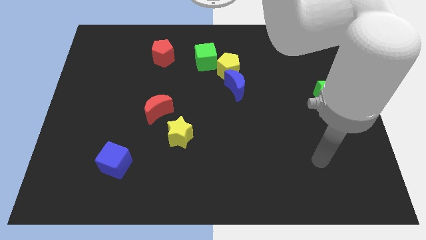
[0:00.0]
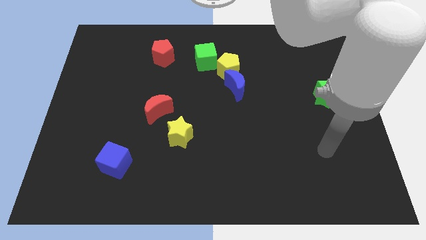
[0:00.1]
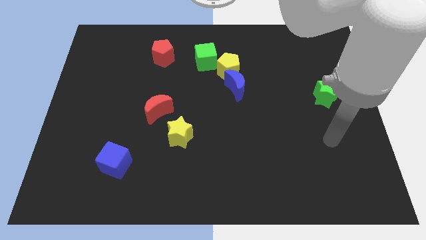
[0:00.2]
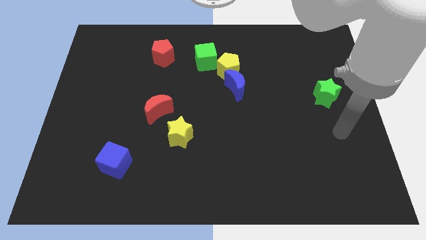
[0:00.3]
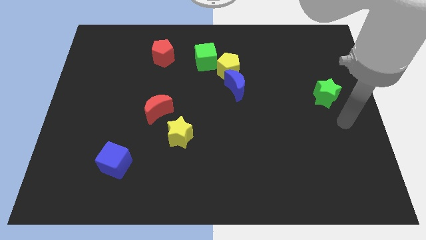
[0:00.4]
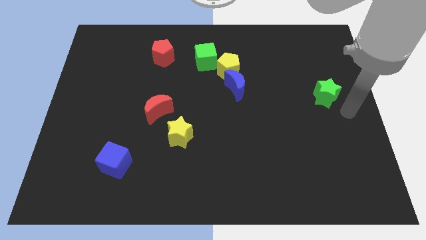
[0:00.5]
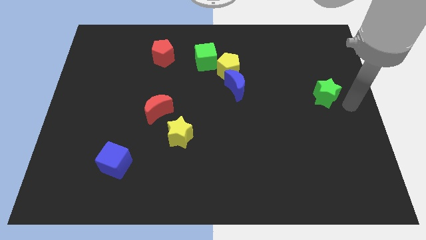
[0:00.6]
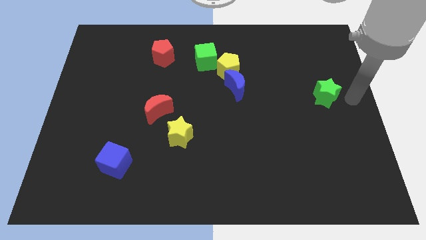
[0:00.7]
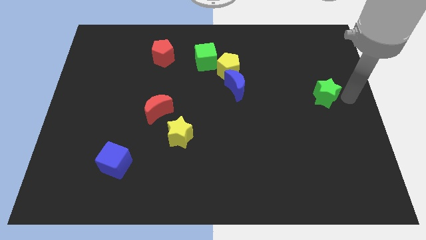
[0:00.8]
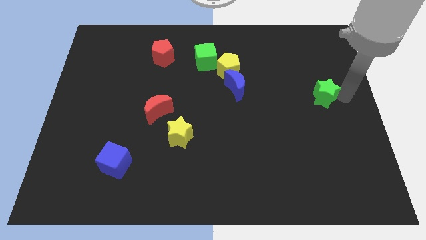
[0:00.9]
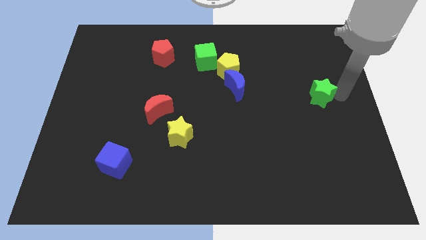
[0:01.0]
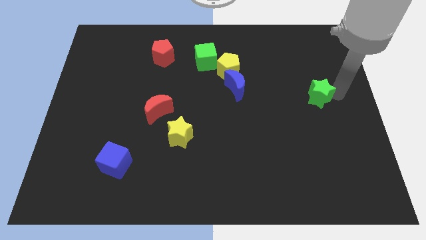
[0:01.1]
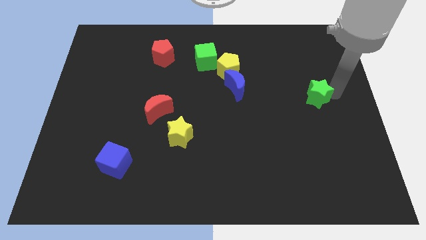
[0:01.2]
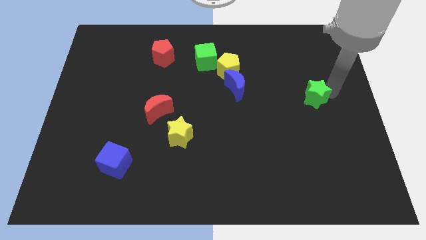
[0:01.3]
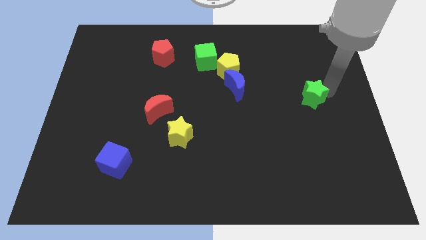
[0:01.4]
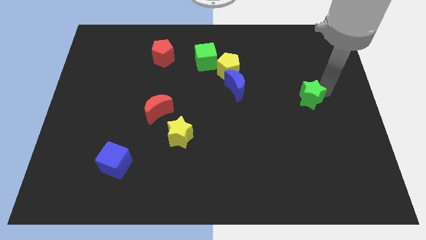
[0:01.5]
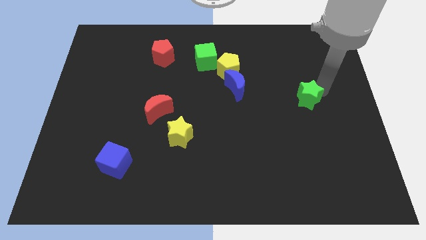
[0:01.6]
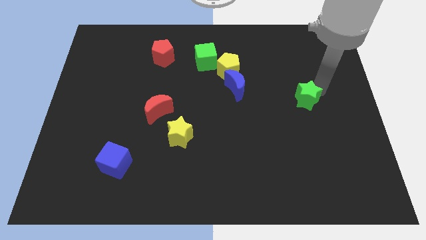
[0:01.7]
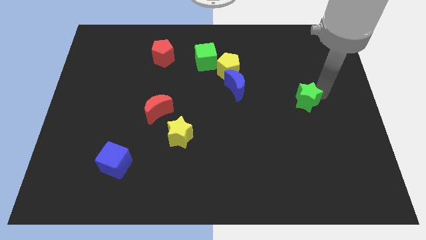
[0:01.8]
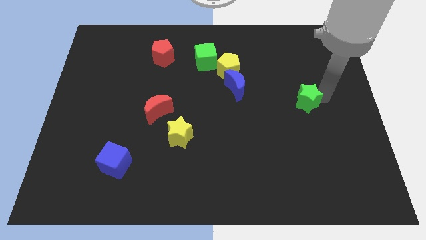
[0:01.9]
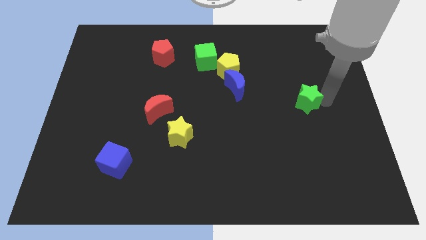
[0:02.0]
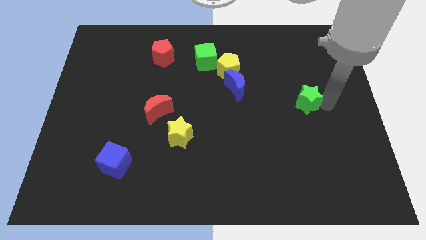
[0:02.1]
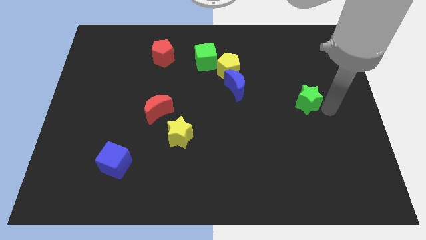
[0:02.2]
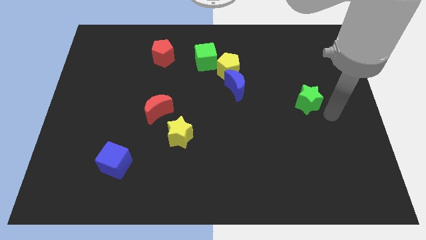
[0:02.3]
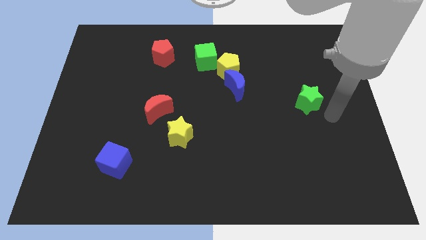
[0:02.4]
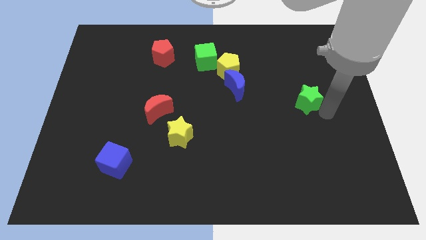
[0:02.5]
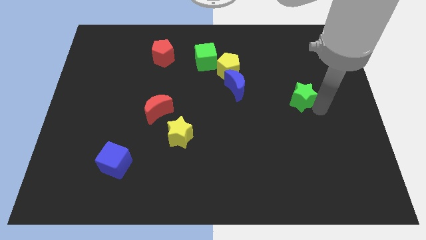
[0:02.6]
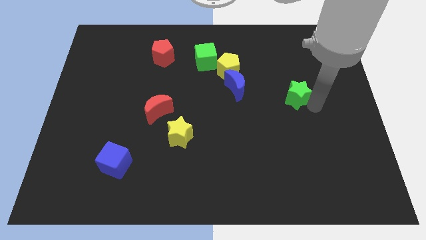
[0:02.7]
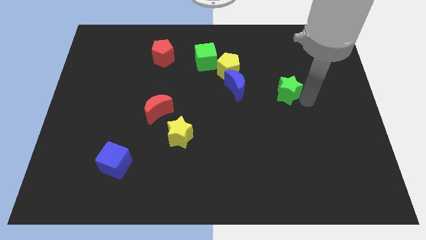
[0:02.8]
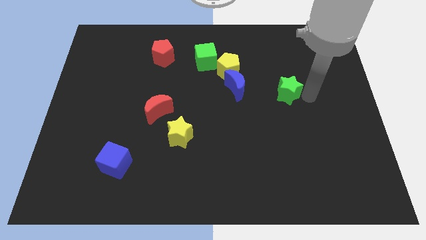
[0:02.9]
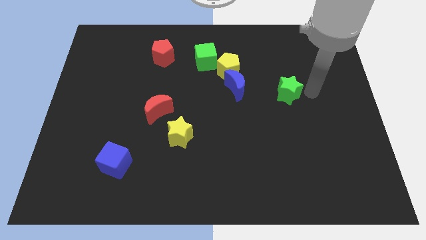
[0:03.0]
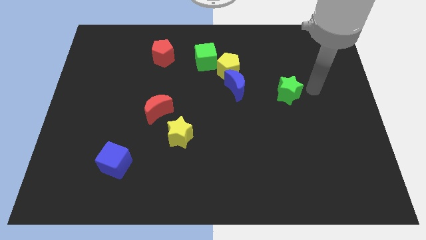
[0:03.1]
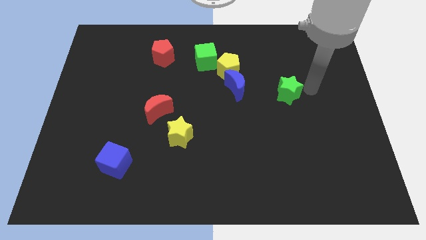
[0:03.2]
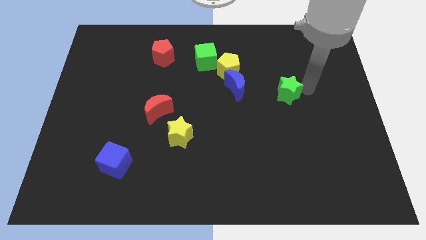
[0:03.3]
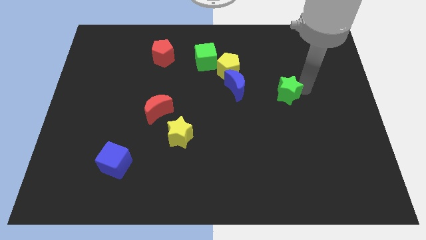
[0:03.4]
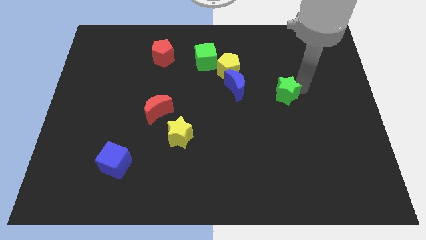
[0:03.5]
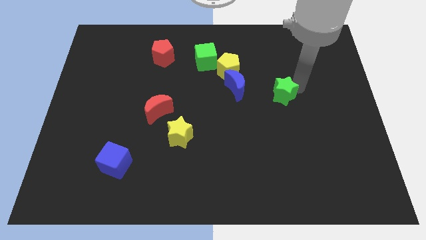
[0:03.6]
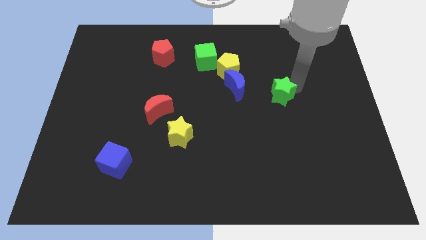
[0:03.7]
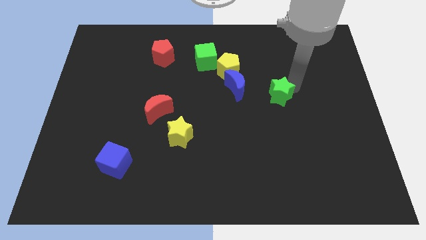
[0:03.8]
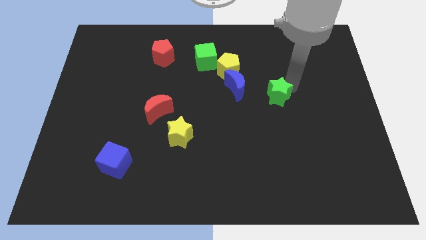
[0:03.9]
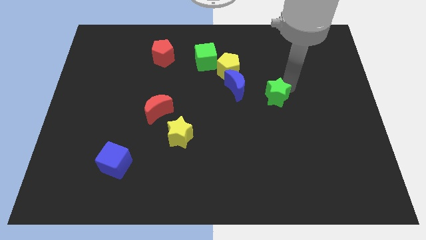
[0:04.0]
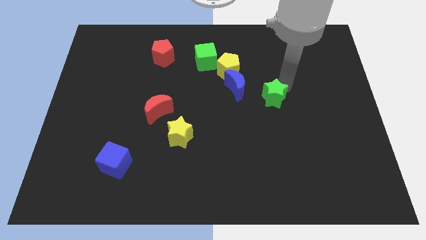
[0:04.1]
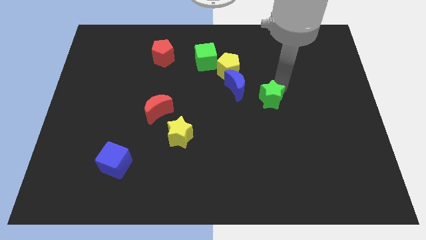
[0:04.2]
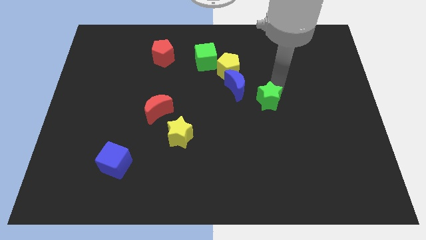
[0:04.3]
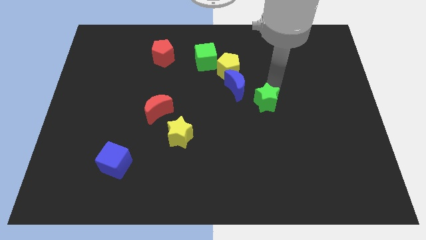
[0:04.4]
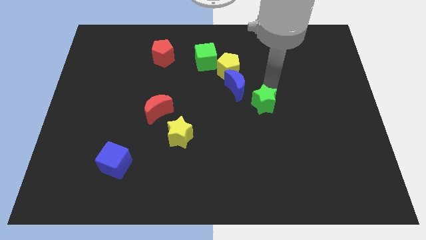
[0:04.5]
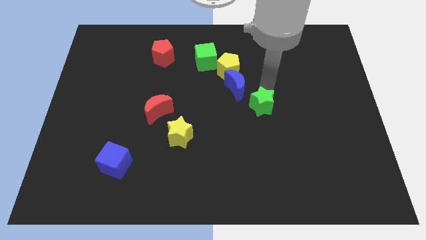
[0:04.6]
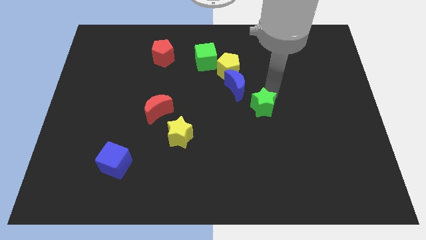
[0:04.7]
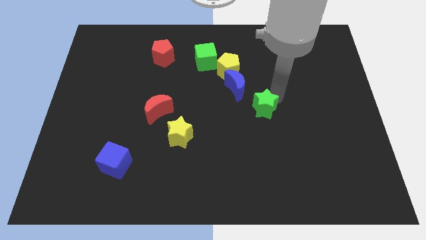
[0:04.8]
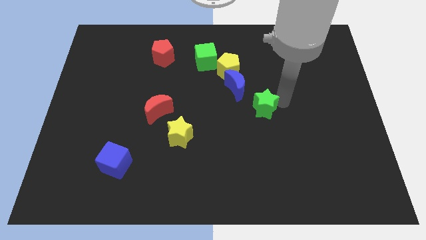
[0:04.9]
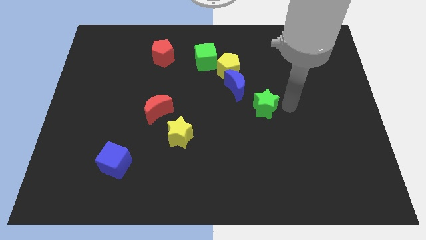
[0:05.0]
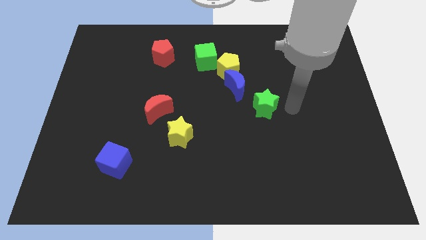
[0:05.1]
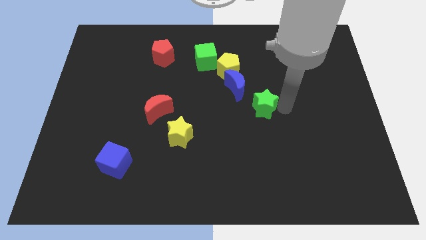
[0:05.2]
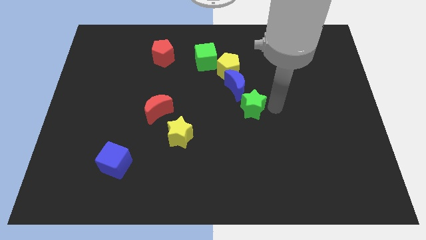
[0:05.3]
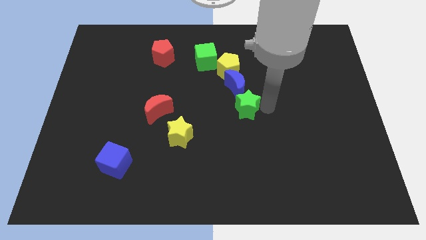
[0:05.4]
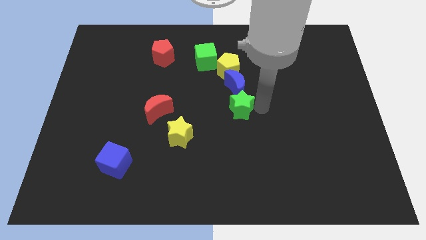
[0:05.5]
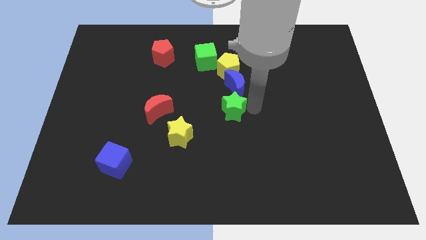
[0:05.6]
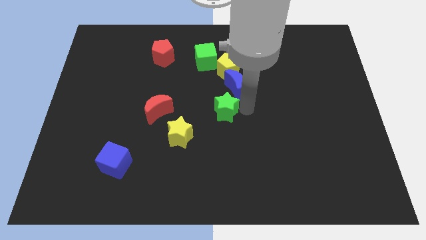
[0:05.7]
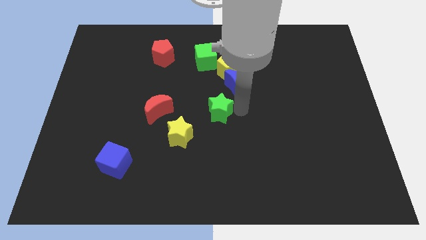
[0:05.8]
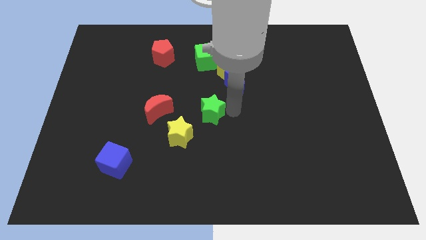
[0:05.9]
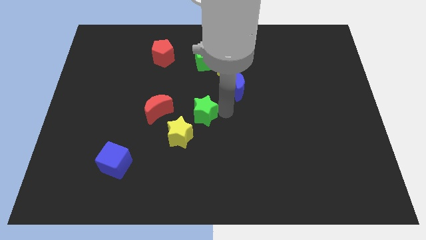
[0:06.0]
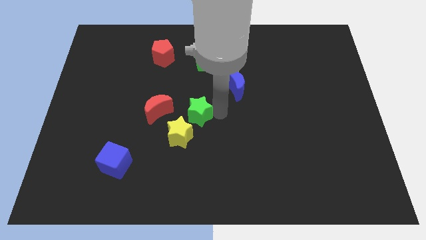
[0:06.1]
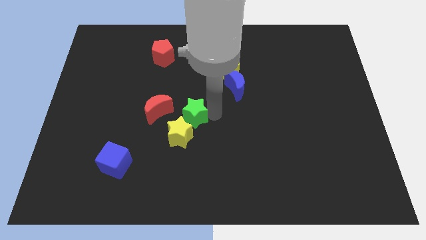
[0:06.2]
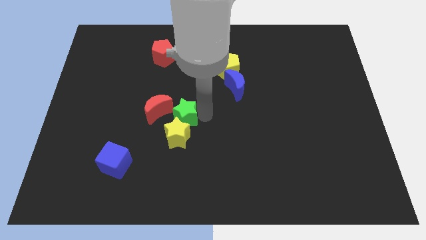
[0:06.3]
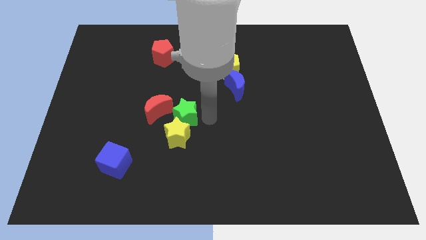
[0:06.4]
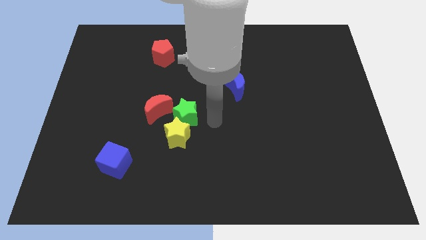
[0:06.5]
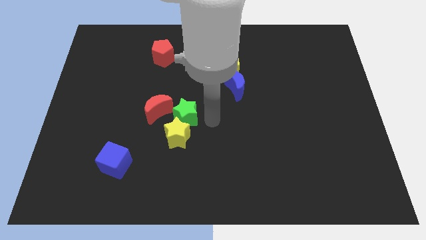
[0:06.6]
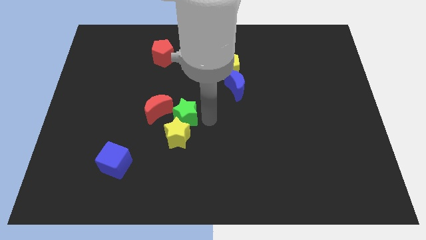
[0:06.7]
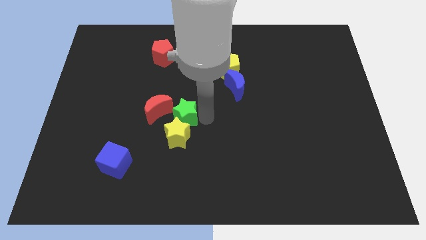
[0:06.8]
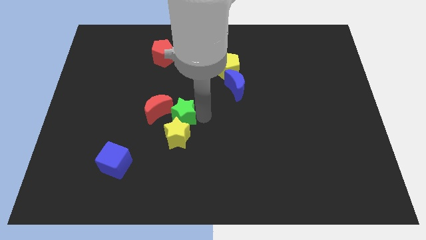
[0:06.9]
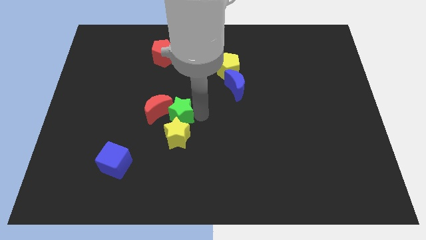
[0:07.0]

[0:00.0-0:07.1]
move the green star to the red moon
